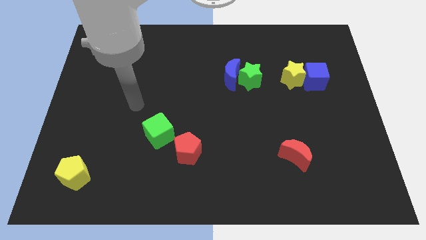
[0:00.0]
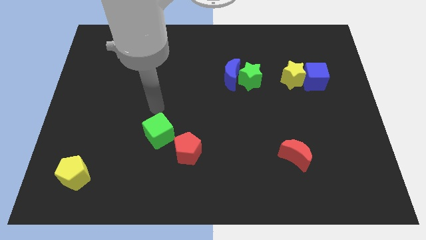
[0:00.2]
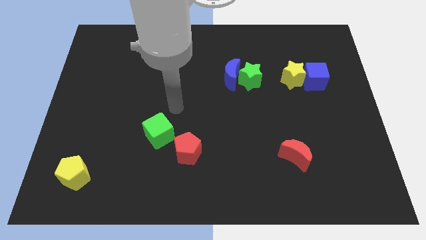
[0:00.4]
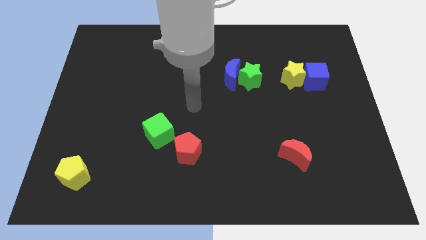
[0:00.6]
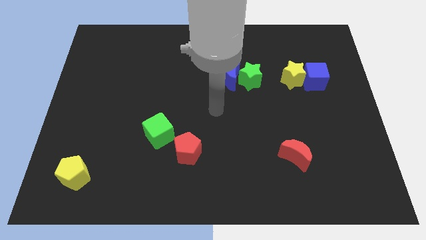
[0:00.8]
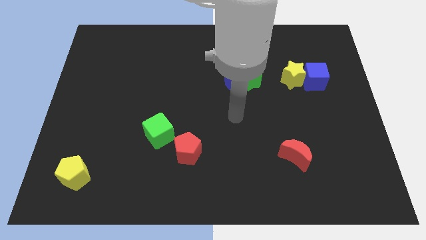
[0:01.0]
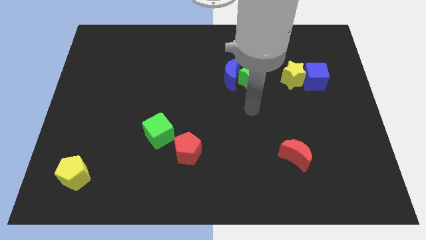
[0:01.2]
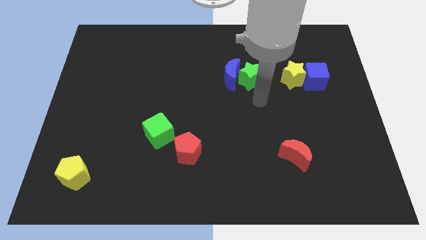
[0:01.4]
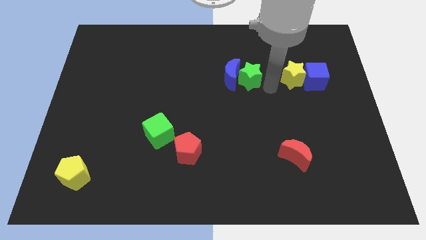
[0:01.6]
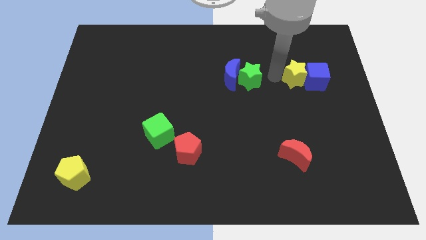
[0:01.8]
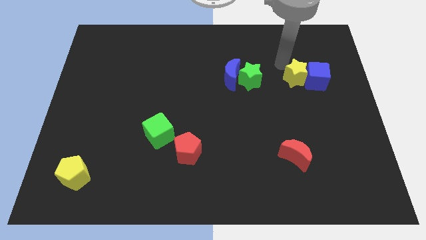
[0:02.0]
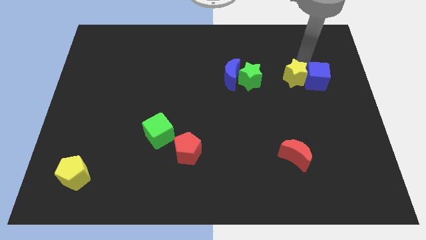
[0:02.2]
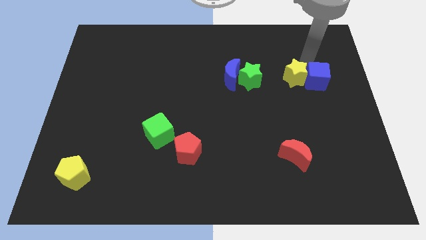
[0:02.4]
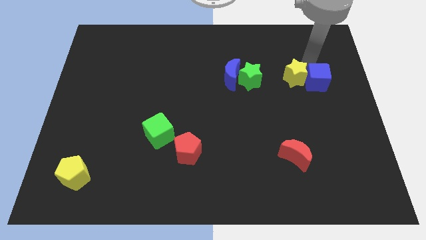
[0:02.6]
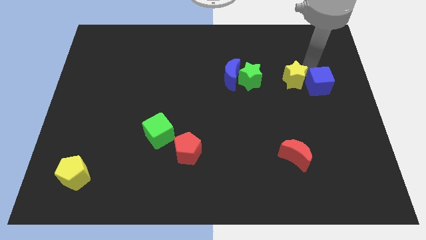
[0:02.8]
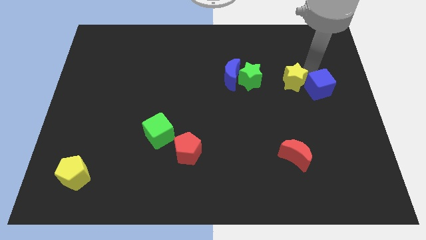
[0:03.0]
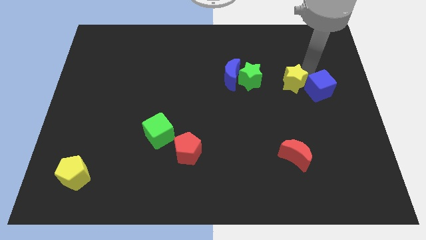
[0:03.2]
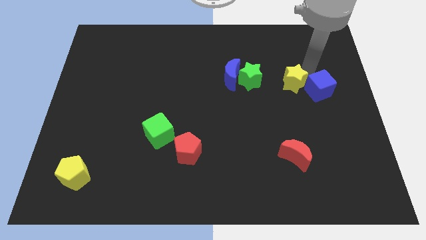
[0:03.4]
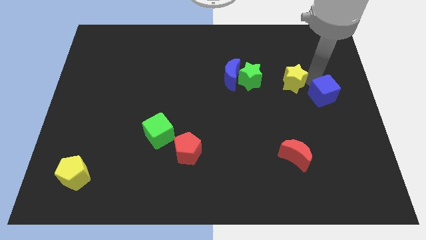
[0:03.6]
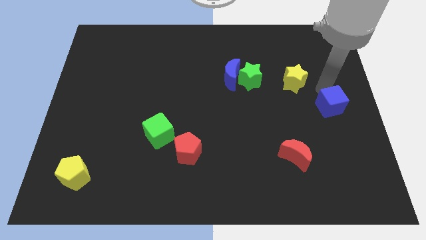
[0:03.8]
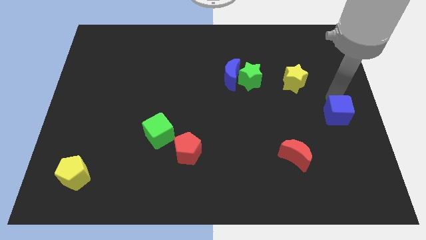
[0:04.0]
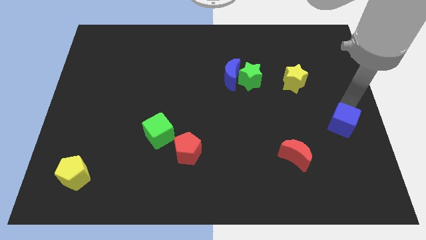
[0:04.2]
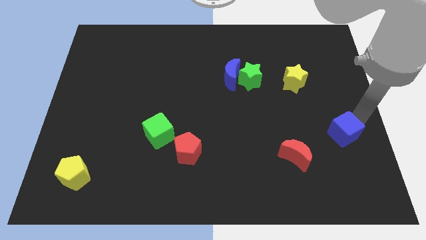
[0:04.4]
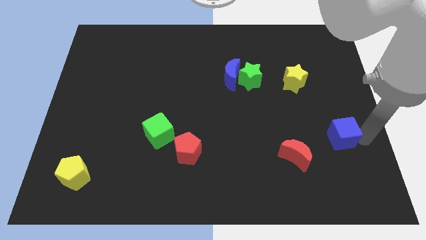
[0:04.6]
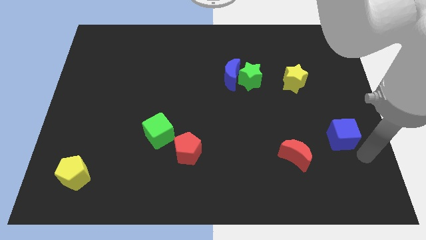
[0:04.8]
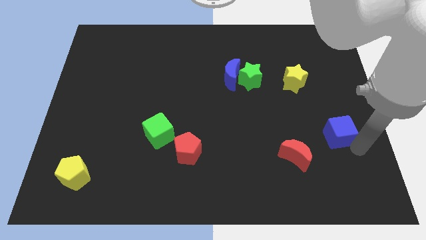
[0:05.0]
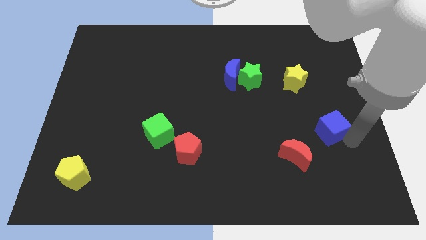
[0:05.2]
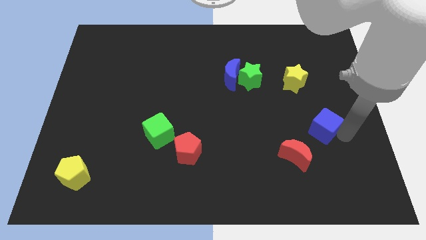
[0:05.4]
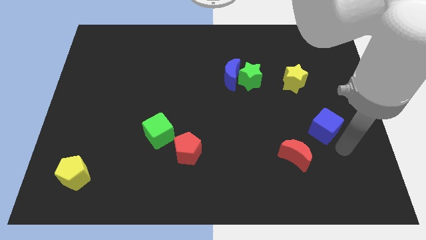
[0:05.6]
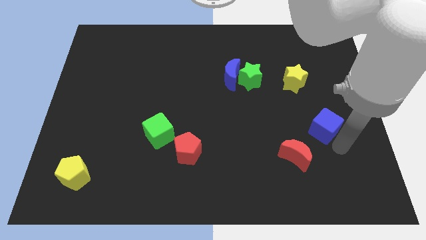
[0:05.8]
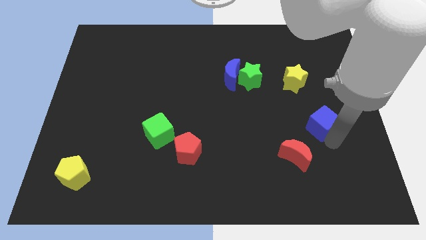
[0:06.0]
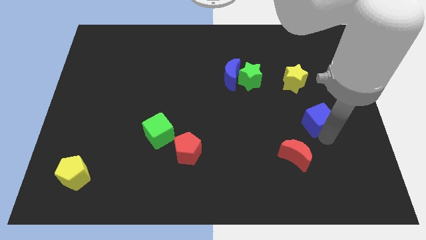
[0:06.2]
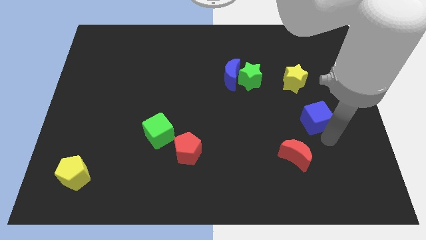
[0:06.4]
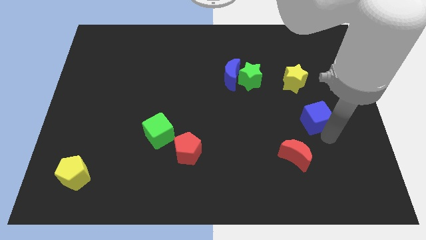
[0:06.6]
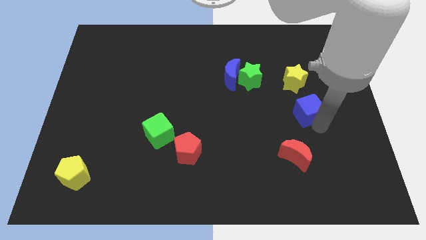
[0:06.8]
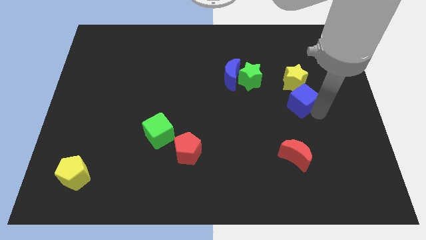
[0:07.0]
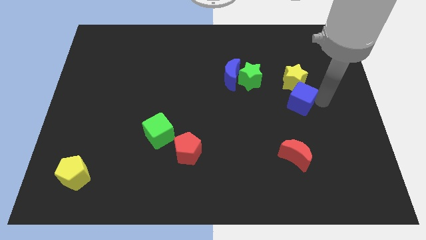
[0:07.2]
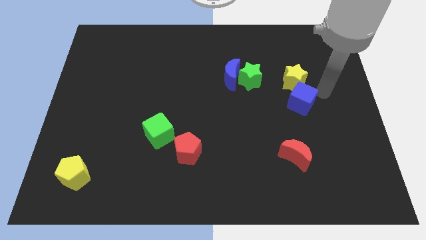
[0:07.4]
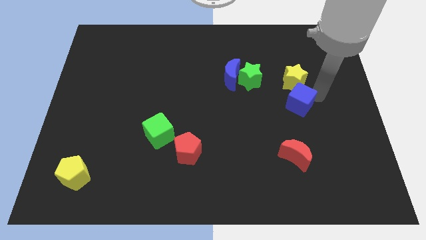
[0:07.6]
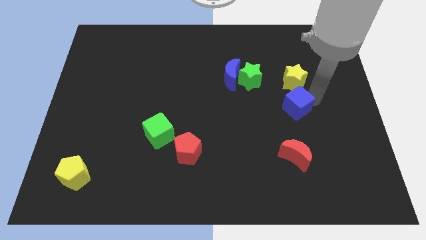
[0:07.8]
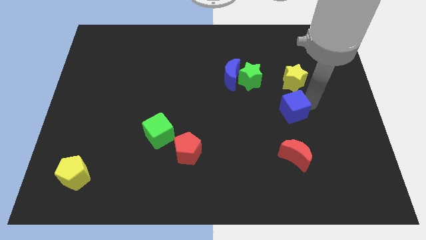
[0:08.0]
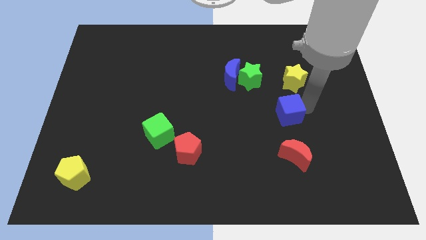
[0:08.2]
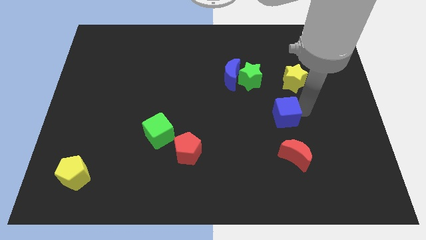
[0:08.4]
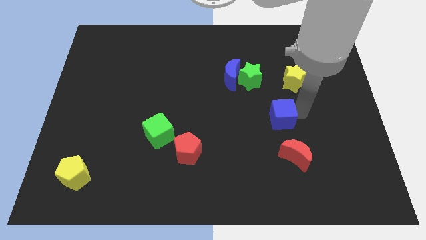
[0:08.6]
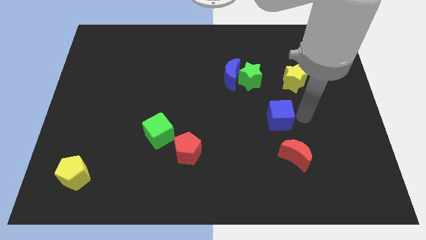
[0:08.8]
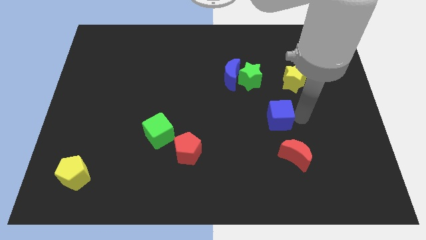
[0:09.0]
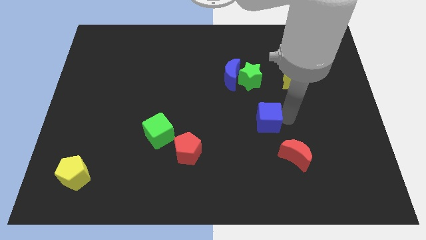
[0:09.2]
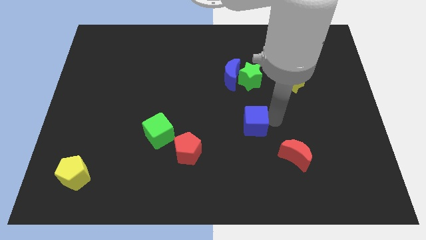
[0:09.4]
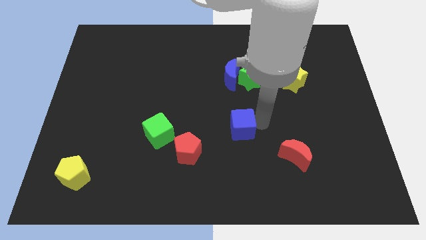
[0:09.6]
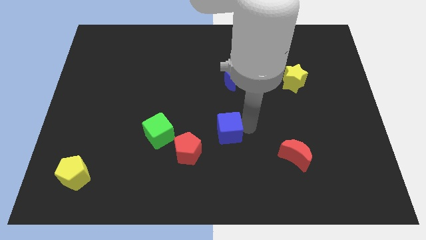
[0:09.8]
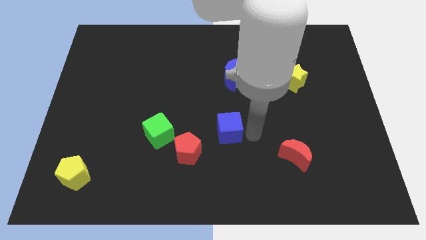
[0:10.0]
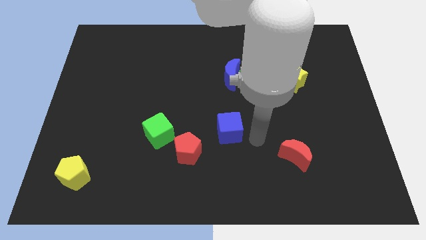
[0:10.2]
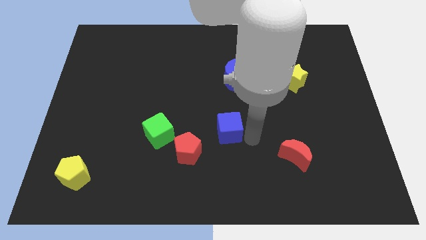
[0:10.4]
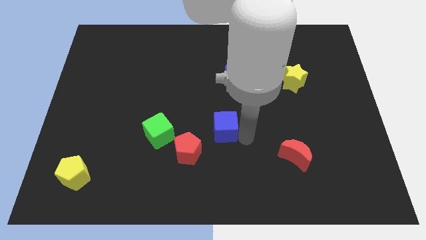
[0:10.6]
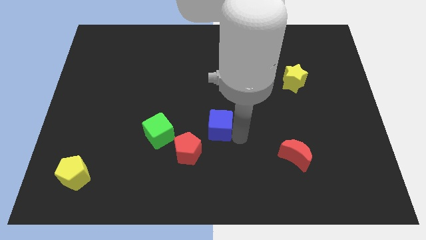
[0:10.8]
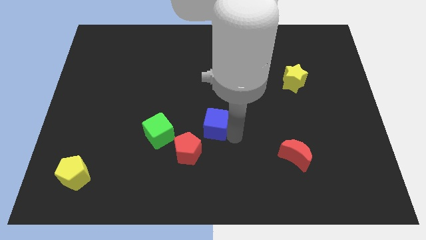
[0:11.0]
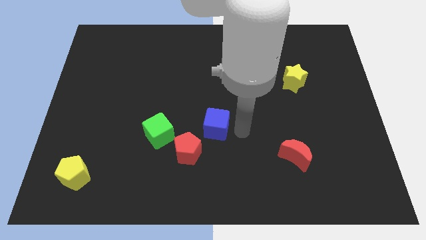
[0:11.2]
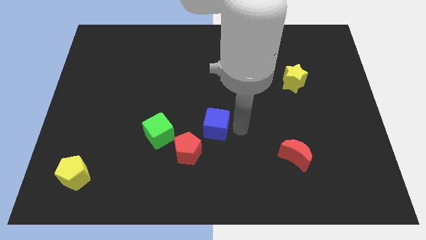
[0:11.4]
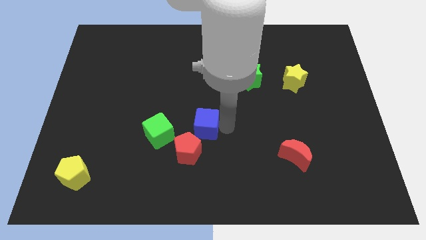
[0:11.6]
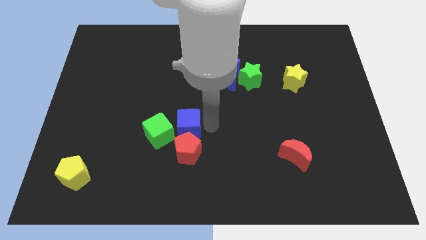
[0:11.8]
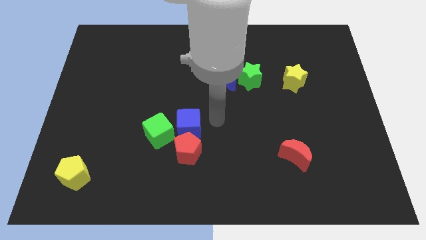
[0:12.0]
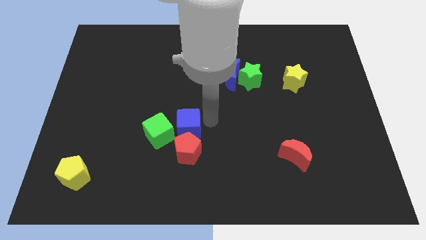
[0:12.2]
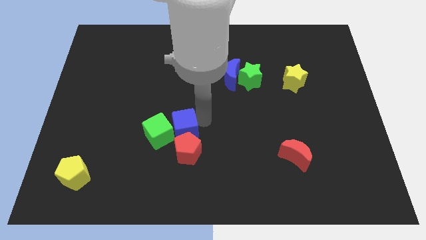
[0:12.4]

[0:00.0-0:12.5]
put the blue cube close to the green cube

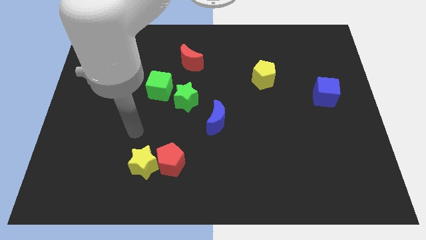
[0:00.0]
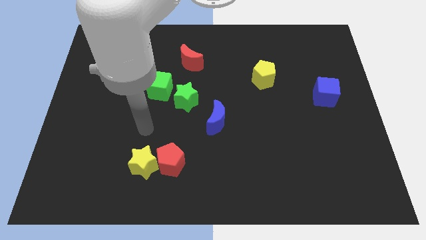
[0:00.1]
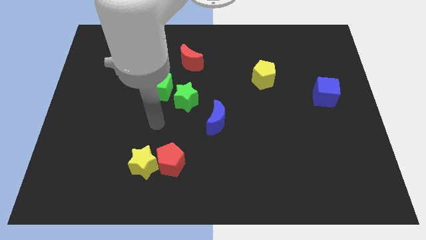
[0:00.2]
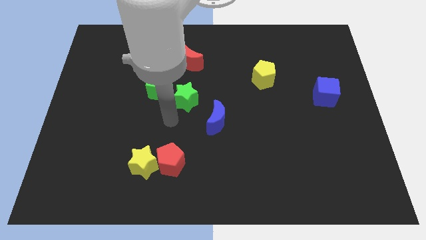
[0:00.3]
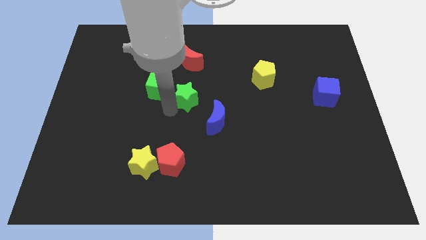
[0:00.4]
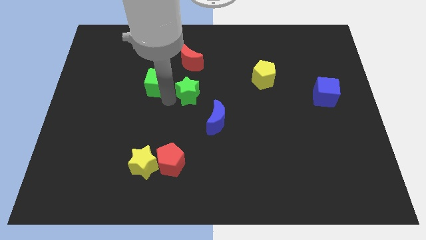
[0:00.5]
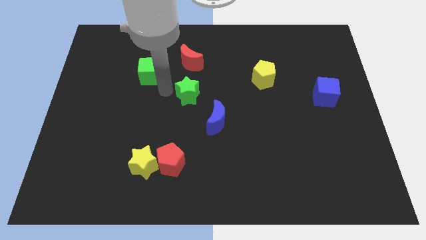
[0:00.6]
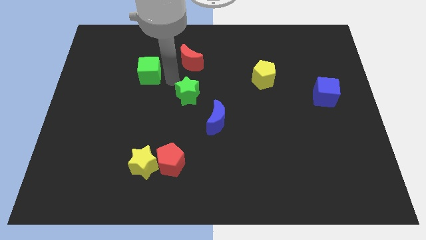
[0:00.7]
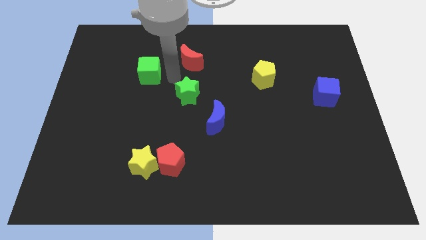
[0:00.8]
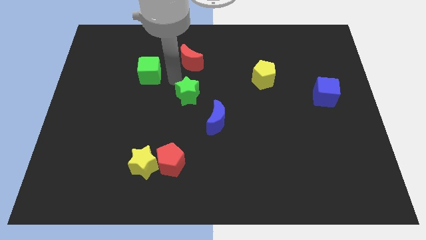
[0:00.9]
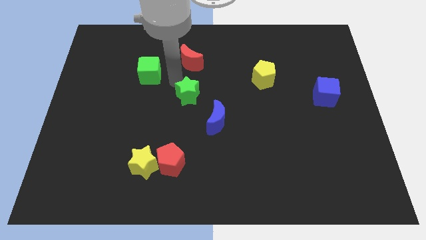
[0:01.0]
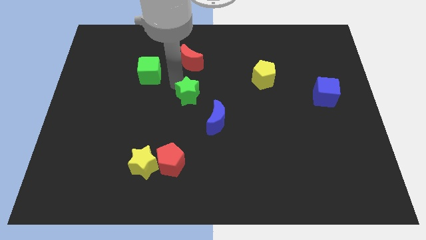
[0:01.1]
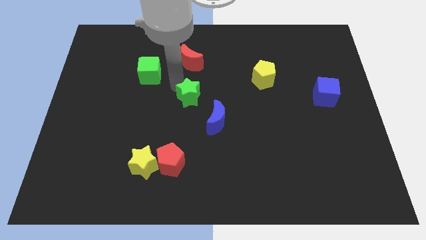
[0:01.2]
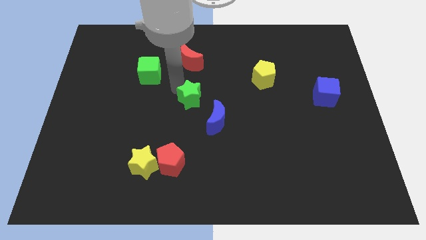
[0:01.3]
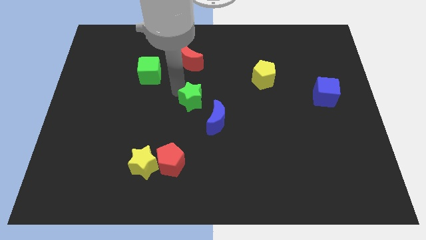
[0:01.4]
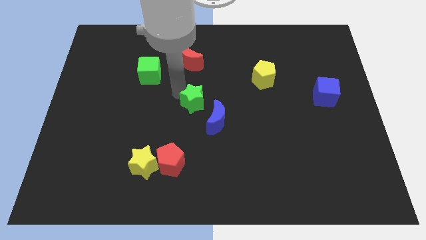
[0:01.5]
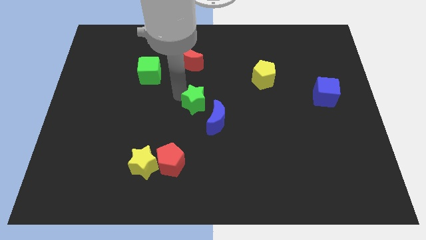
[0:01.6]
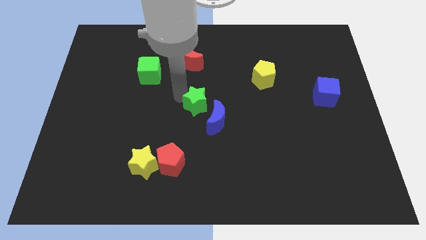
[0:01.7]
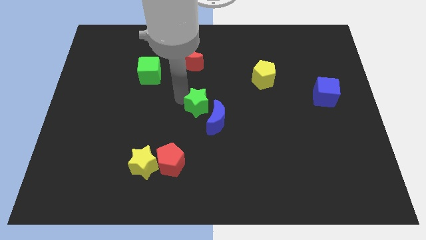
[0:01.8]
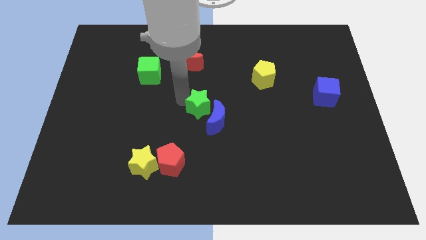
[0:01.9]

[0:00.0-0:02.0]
slide the green star close to the blue moon
